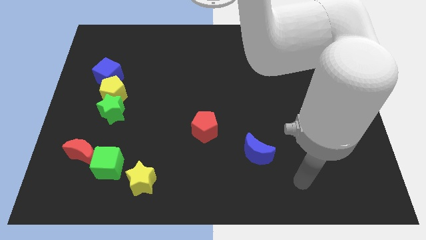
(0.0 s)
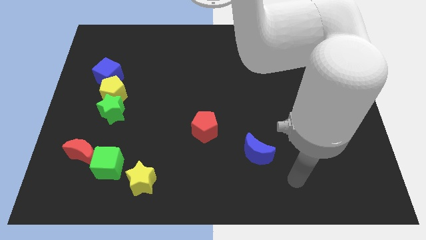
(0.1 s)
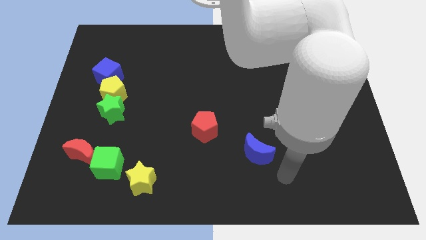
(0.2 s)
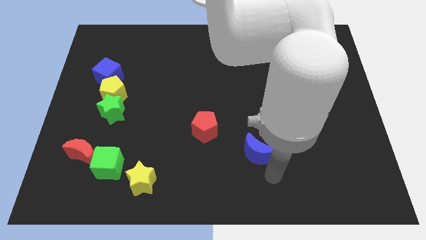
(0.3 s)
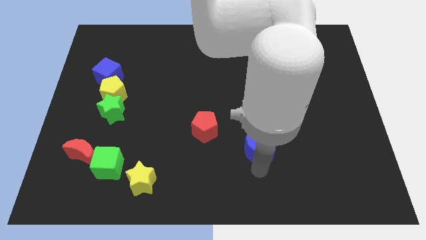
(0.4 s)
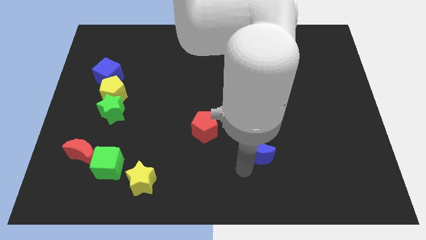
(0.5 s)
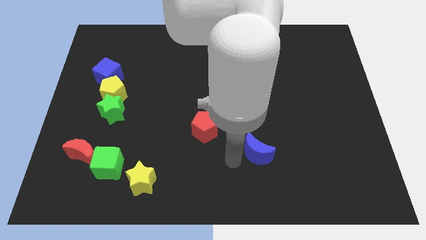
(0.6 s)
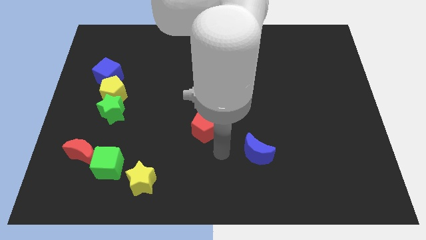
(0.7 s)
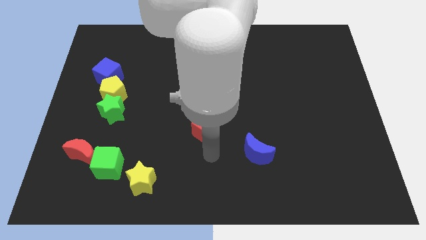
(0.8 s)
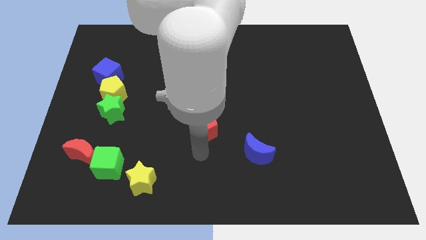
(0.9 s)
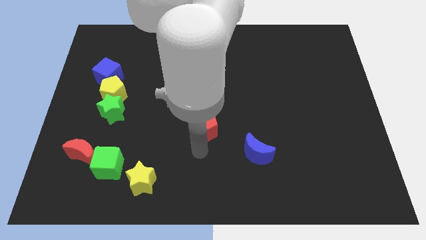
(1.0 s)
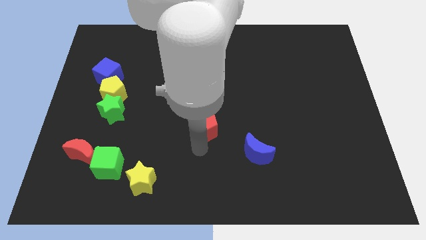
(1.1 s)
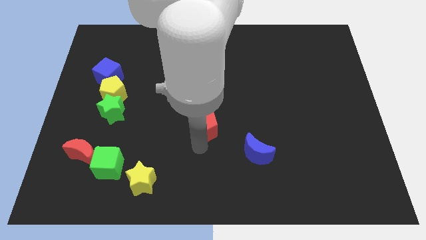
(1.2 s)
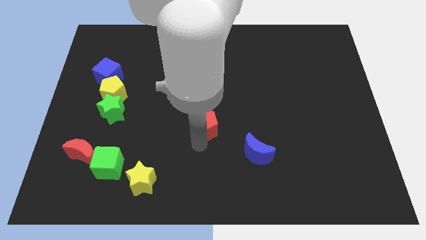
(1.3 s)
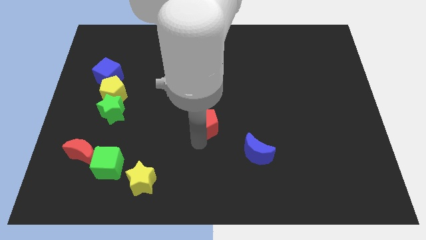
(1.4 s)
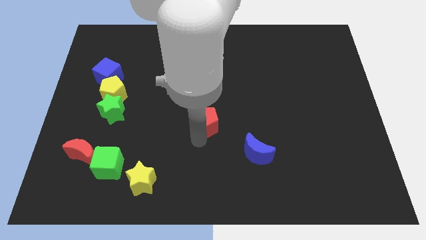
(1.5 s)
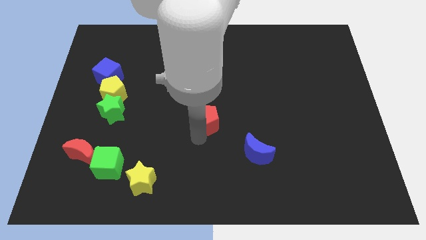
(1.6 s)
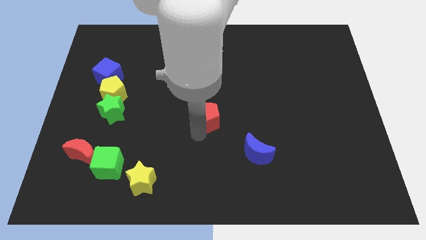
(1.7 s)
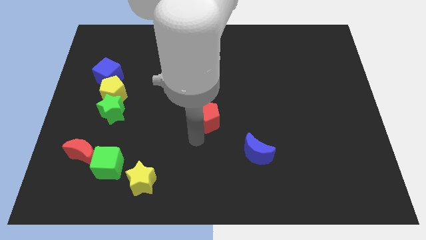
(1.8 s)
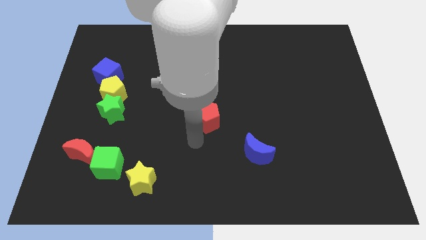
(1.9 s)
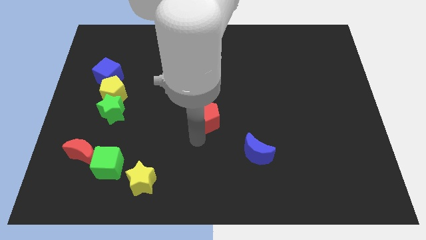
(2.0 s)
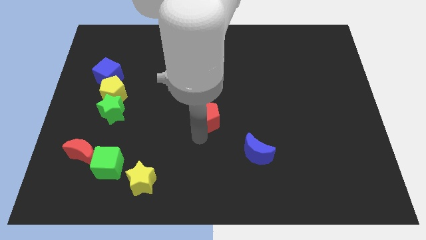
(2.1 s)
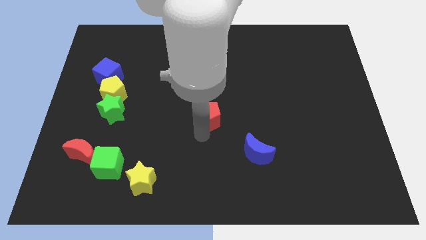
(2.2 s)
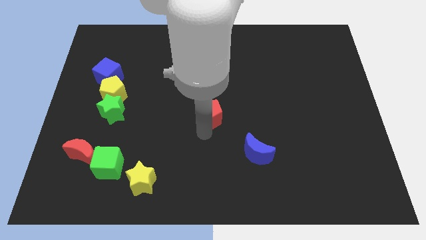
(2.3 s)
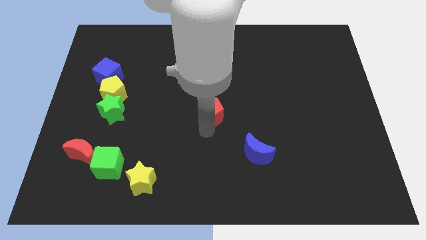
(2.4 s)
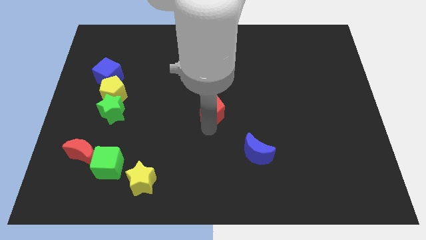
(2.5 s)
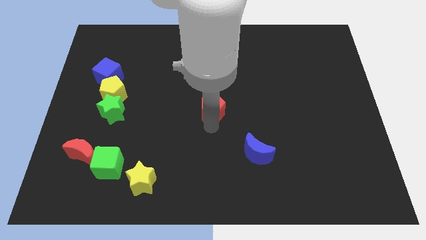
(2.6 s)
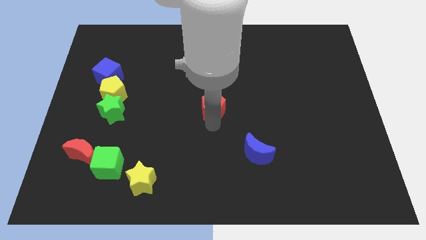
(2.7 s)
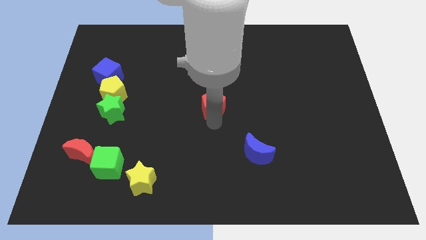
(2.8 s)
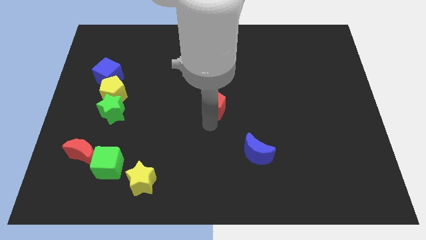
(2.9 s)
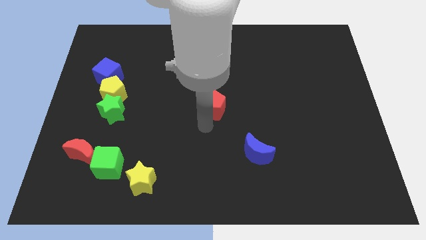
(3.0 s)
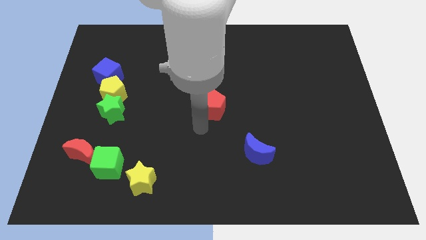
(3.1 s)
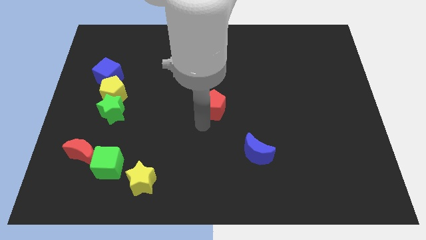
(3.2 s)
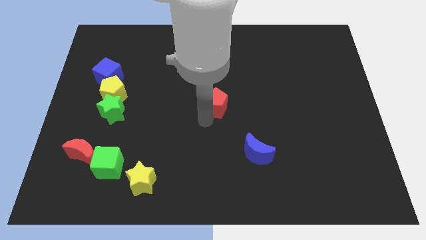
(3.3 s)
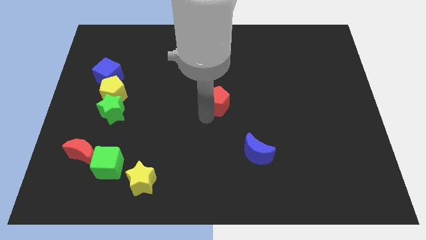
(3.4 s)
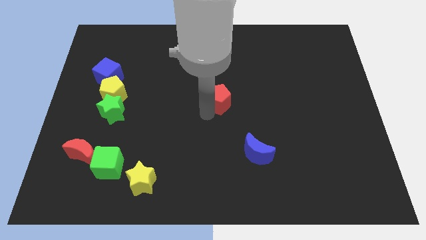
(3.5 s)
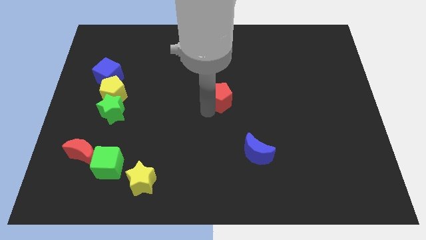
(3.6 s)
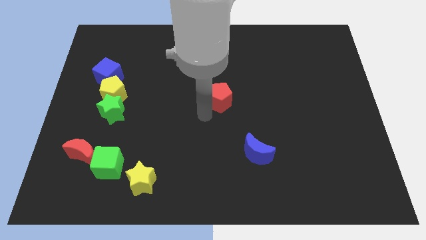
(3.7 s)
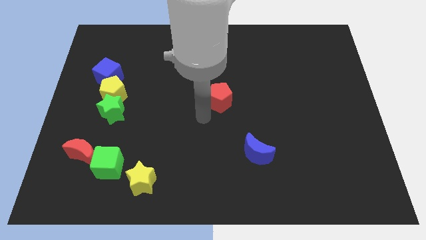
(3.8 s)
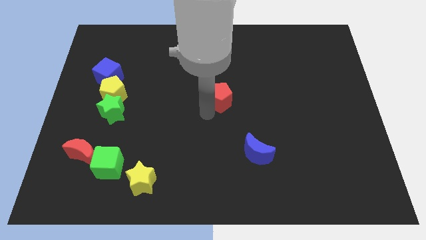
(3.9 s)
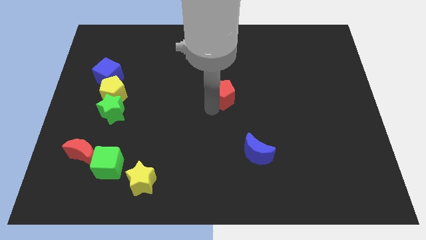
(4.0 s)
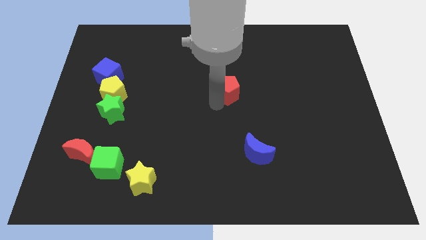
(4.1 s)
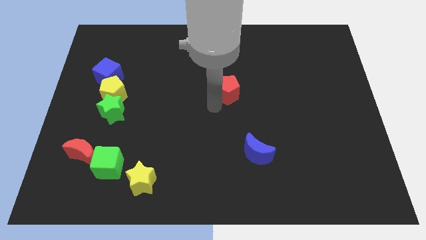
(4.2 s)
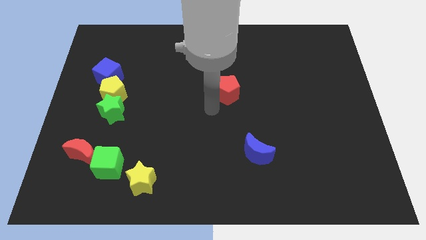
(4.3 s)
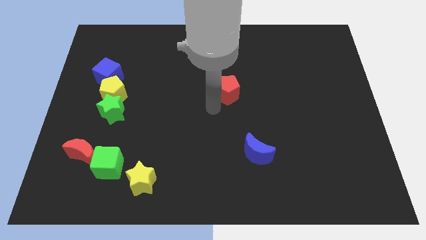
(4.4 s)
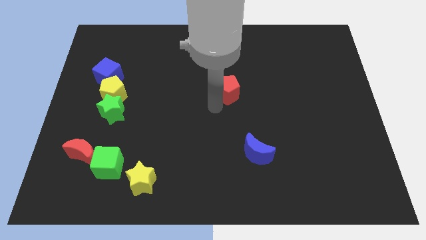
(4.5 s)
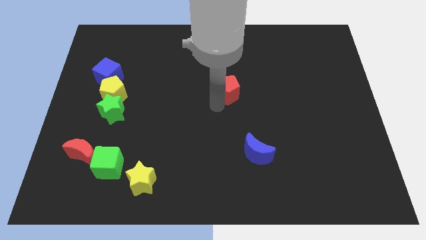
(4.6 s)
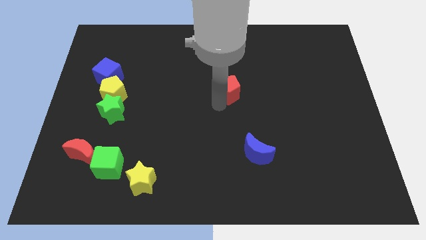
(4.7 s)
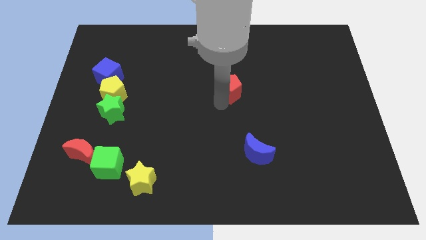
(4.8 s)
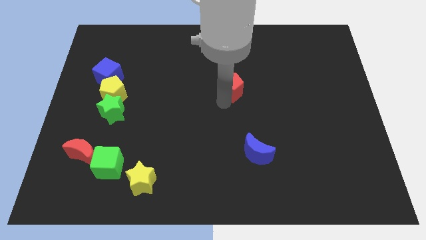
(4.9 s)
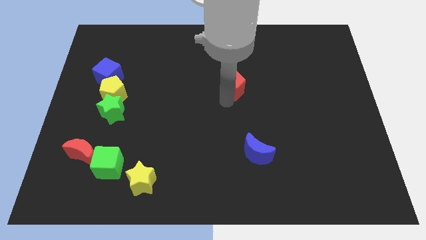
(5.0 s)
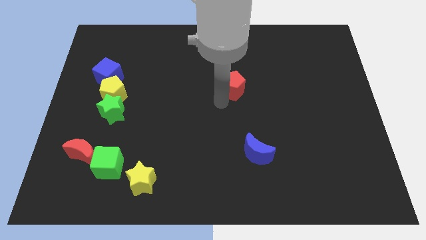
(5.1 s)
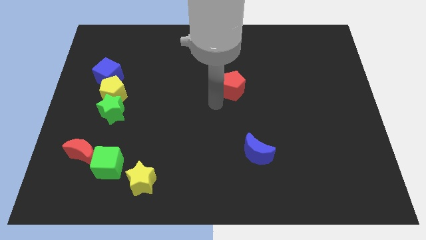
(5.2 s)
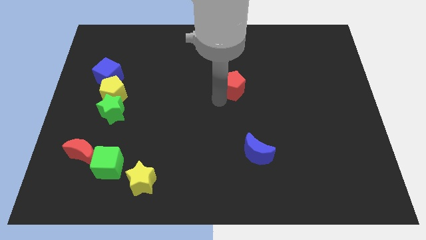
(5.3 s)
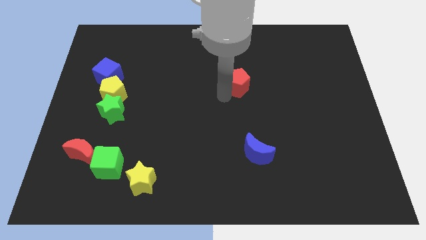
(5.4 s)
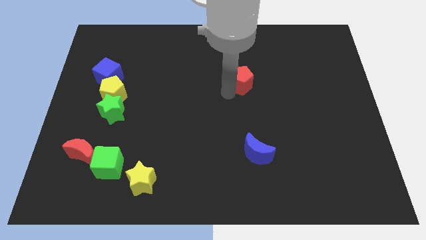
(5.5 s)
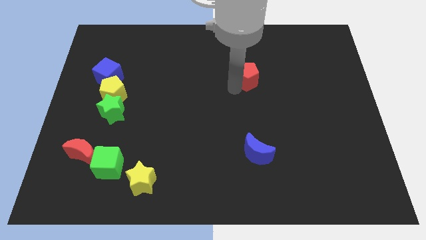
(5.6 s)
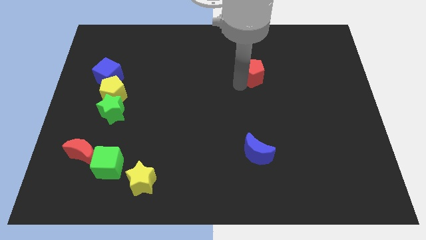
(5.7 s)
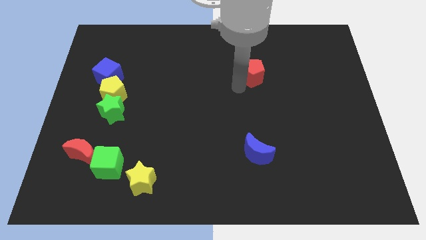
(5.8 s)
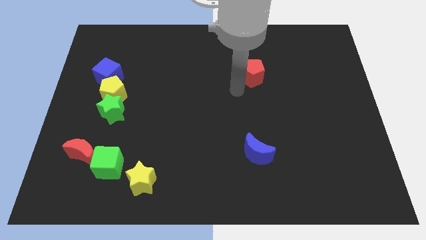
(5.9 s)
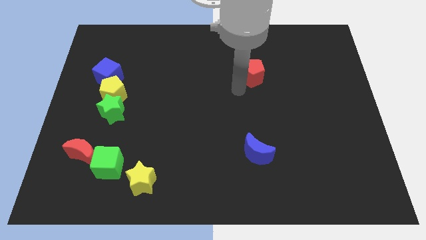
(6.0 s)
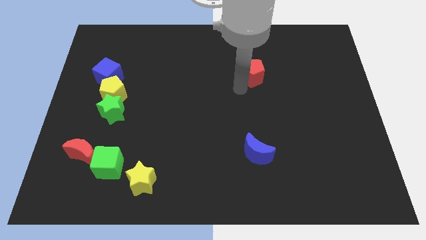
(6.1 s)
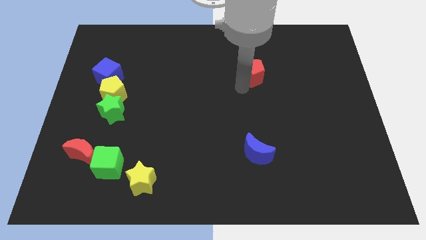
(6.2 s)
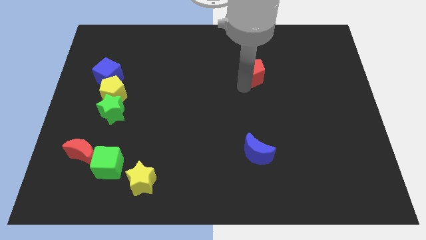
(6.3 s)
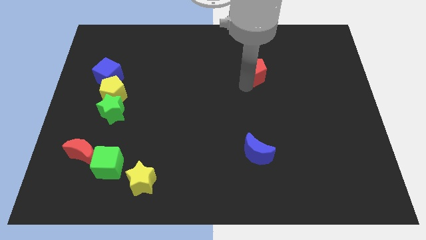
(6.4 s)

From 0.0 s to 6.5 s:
push the red pentagon up and right diagonally

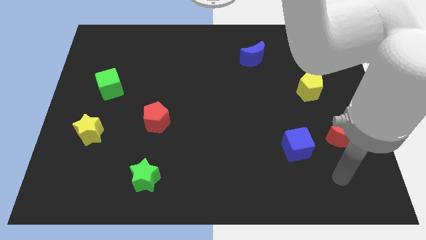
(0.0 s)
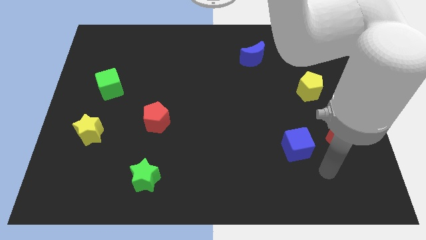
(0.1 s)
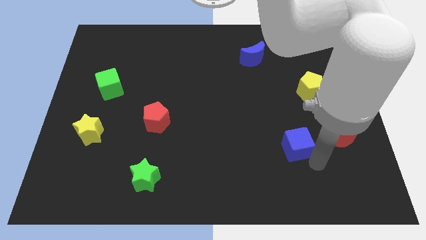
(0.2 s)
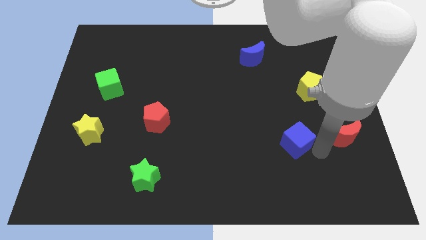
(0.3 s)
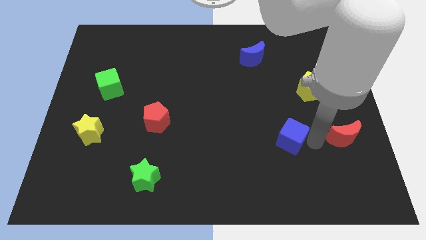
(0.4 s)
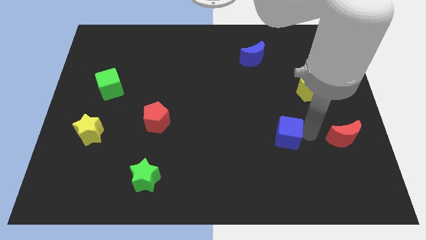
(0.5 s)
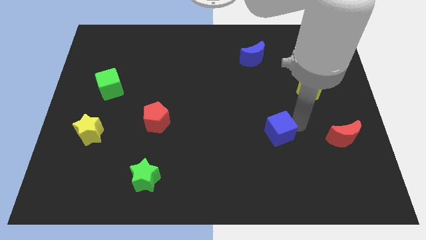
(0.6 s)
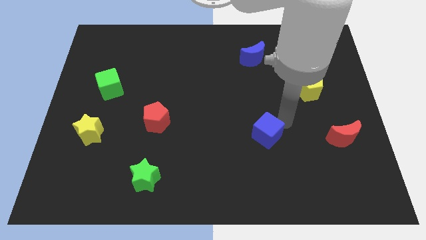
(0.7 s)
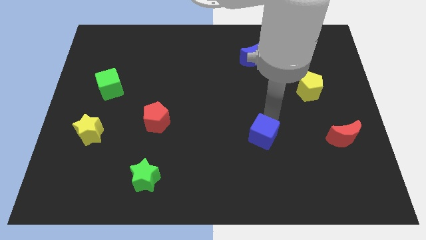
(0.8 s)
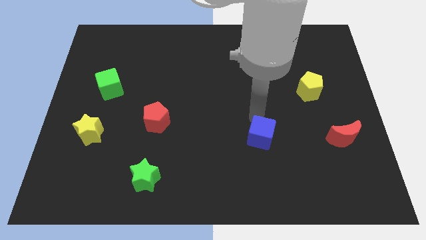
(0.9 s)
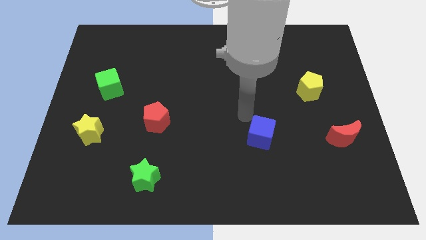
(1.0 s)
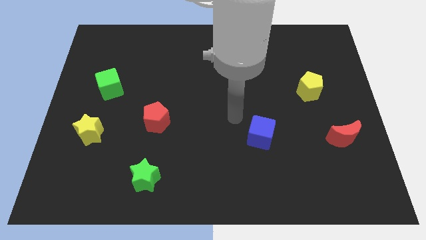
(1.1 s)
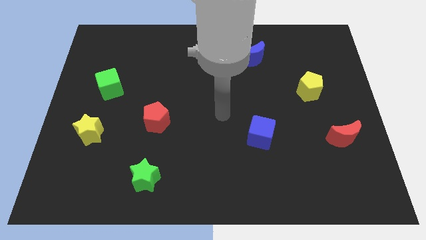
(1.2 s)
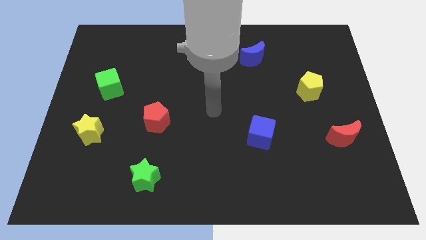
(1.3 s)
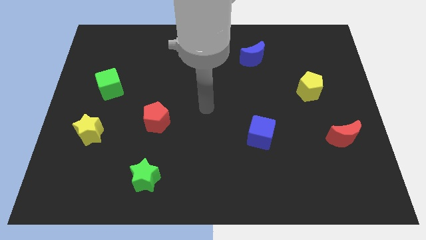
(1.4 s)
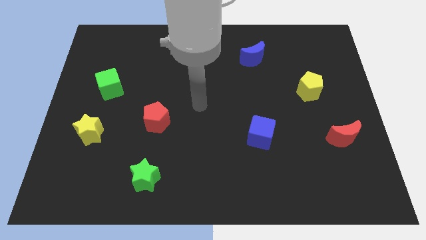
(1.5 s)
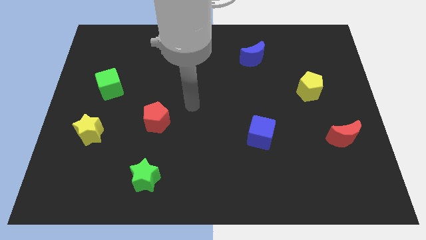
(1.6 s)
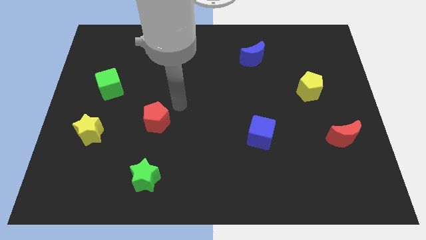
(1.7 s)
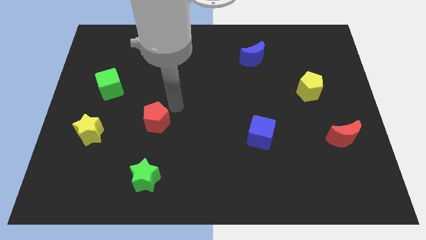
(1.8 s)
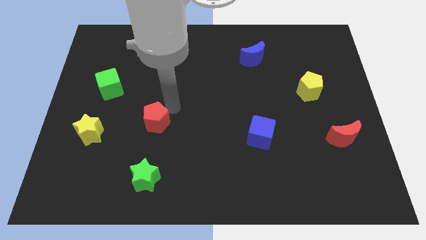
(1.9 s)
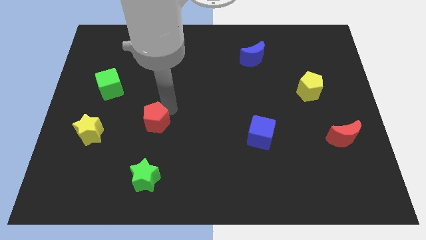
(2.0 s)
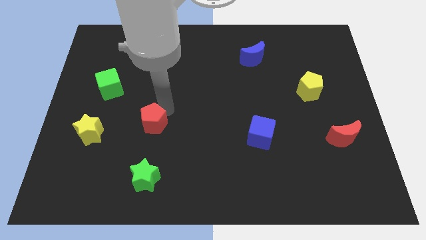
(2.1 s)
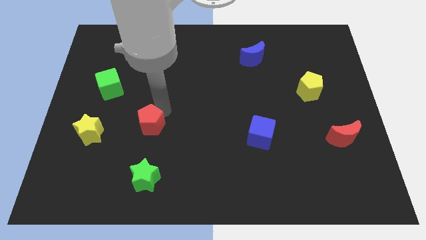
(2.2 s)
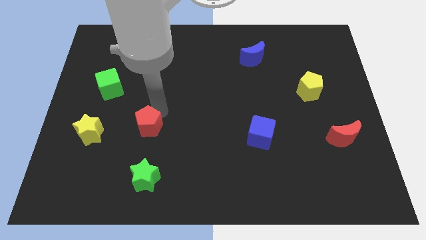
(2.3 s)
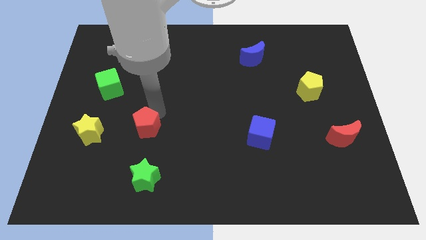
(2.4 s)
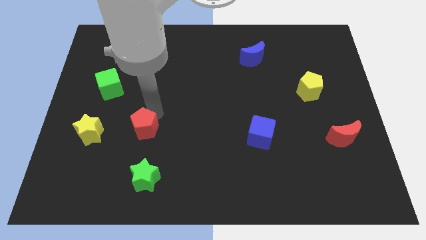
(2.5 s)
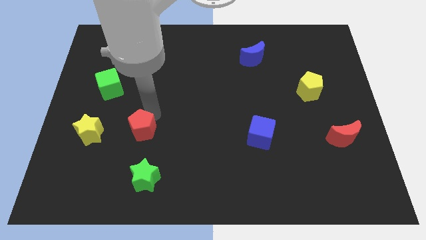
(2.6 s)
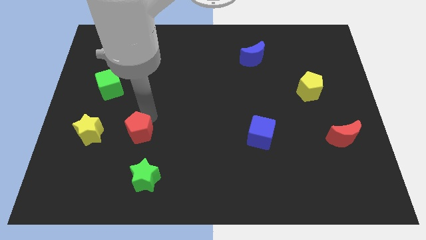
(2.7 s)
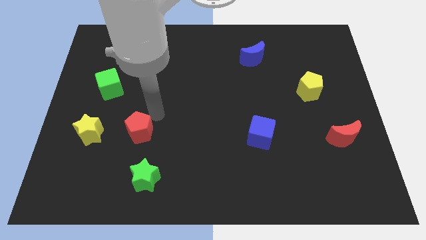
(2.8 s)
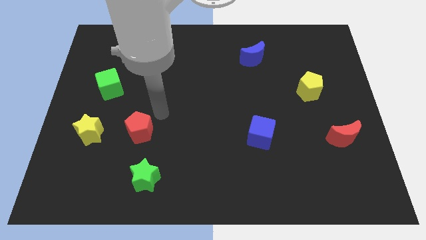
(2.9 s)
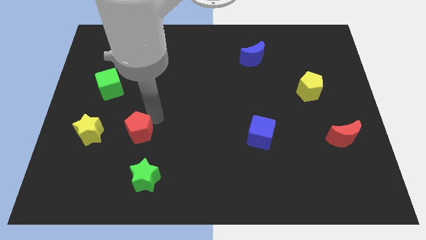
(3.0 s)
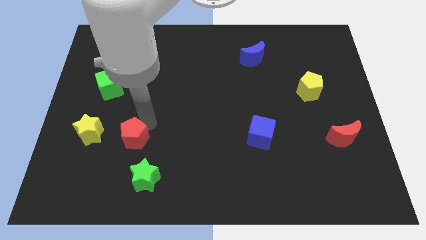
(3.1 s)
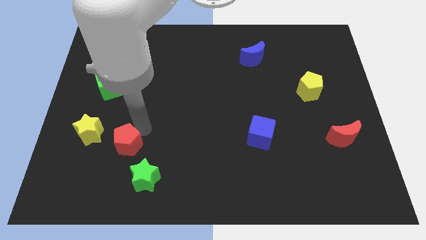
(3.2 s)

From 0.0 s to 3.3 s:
move the red pentagon a little diagonally down and to the left
